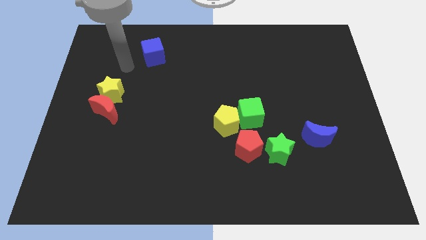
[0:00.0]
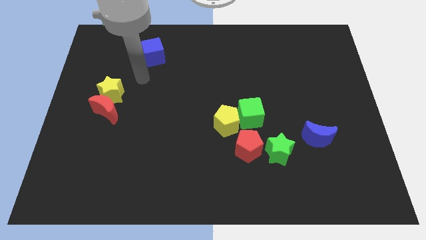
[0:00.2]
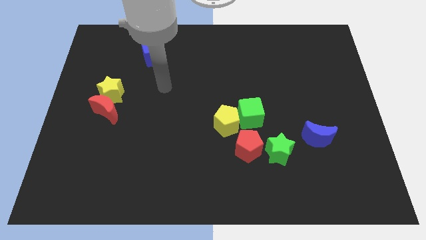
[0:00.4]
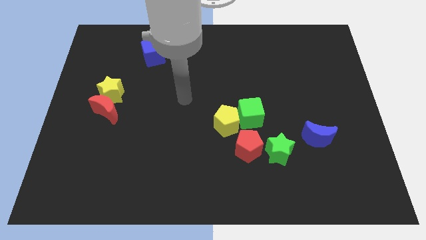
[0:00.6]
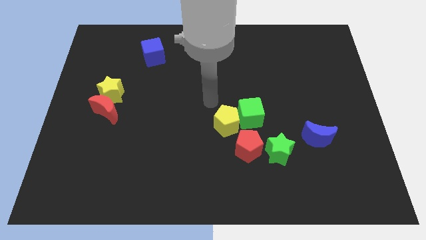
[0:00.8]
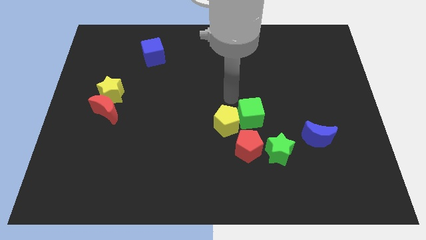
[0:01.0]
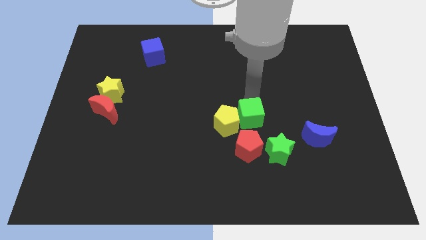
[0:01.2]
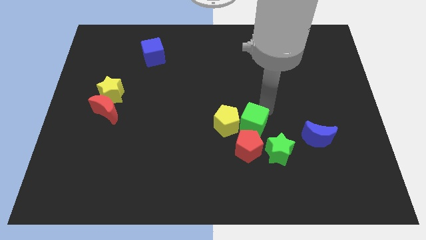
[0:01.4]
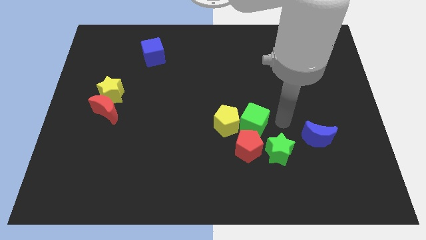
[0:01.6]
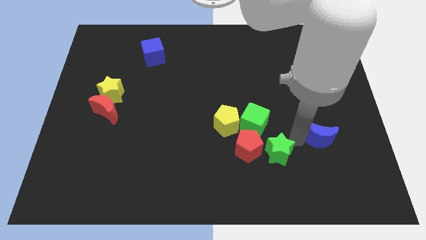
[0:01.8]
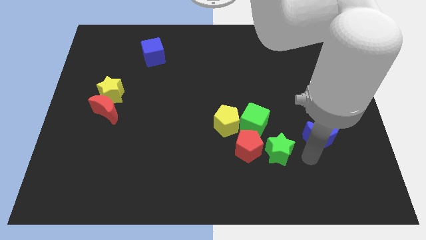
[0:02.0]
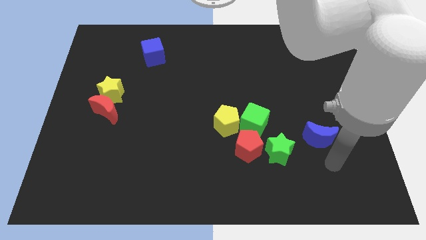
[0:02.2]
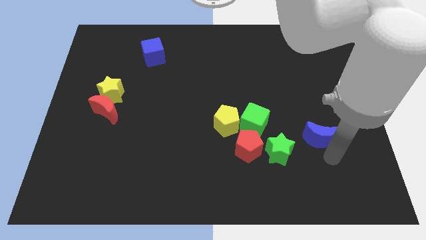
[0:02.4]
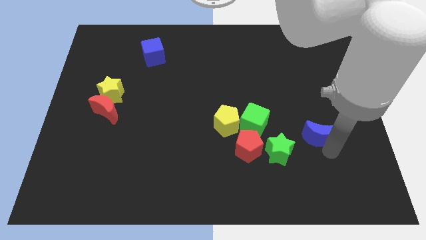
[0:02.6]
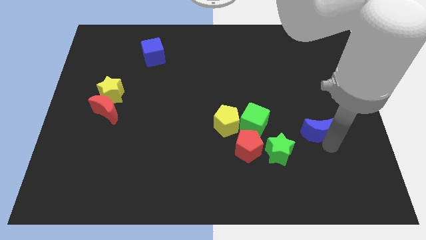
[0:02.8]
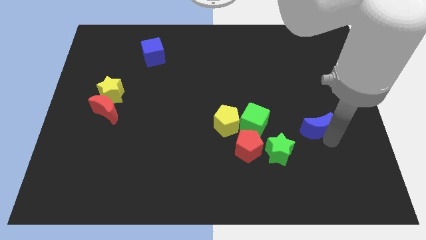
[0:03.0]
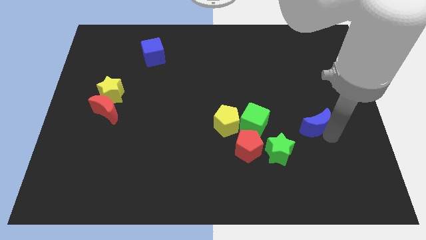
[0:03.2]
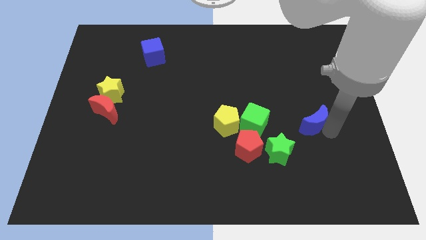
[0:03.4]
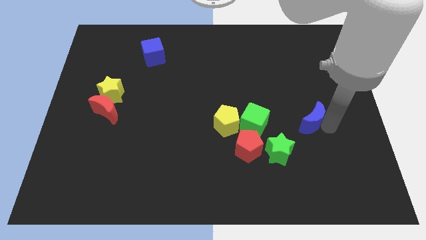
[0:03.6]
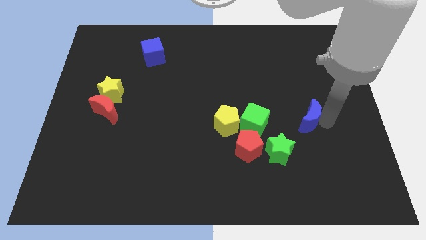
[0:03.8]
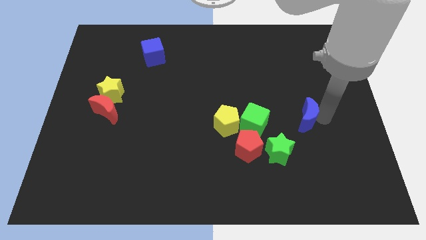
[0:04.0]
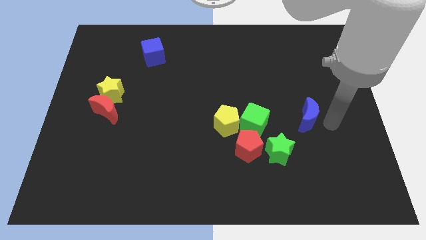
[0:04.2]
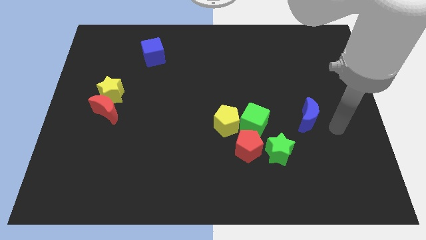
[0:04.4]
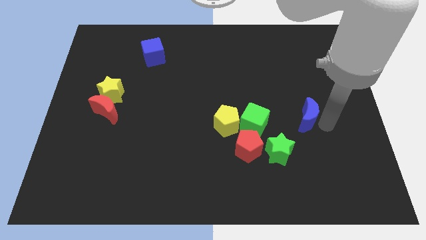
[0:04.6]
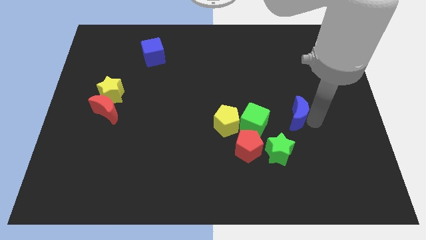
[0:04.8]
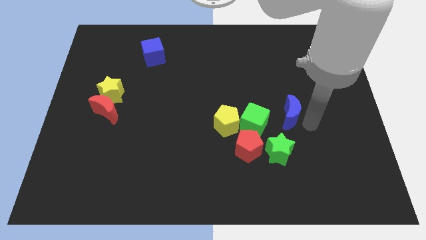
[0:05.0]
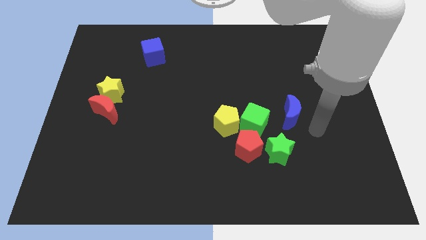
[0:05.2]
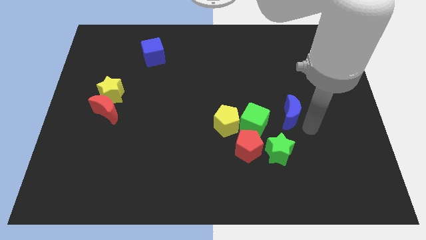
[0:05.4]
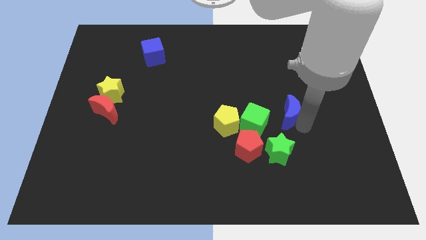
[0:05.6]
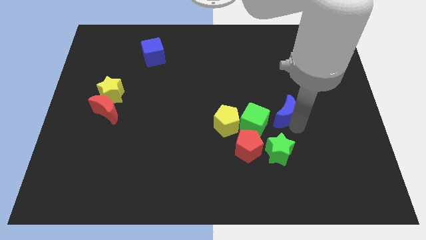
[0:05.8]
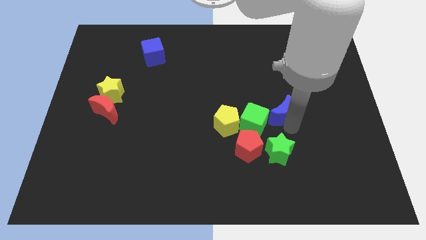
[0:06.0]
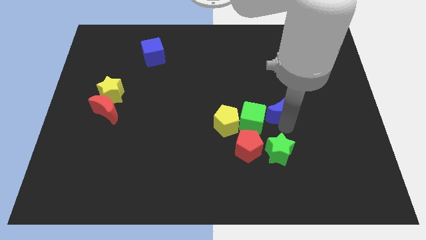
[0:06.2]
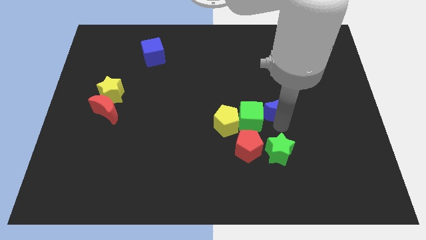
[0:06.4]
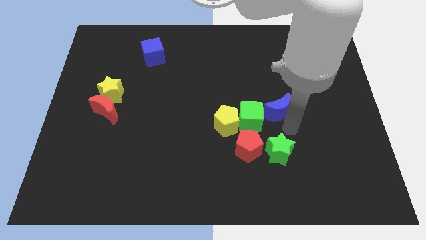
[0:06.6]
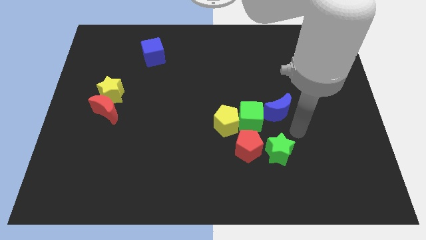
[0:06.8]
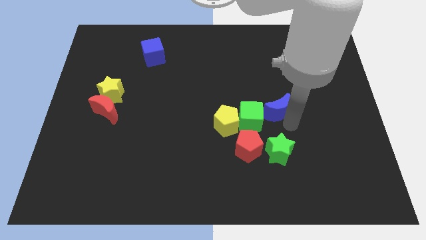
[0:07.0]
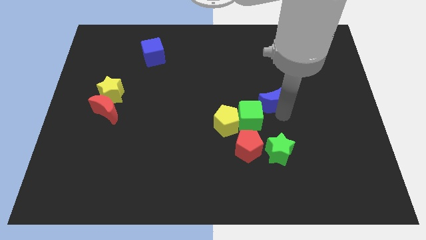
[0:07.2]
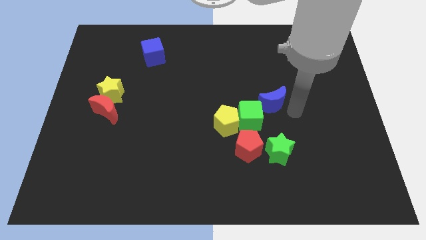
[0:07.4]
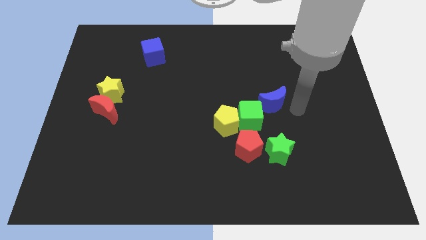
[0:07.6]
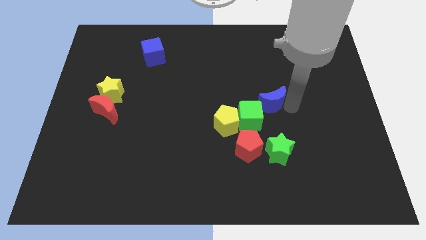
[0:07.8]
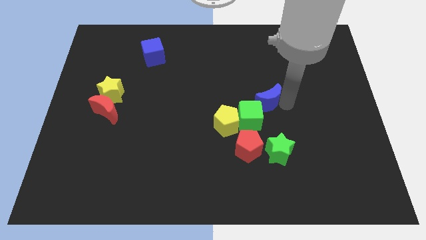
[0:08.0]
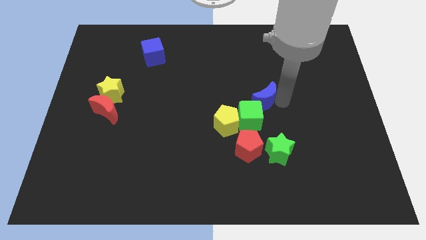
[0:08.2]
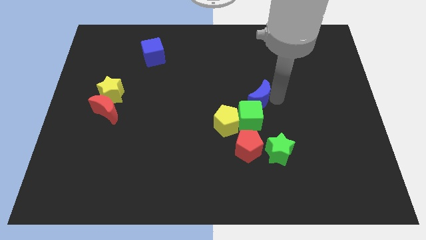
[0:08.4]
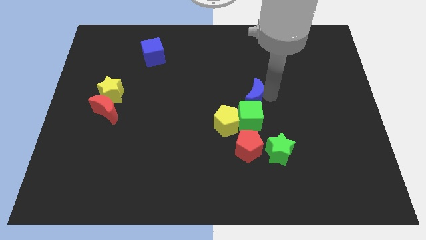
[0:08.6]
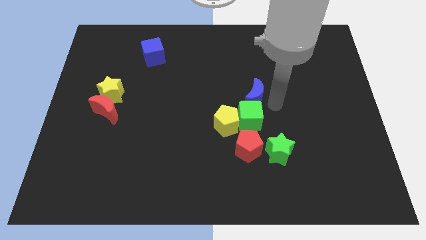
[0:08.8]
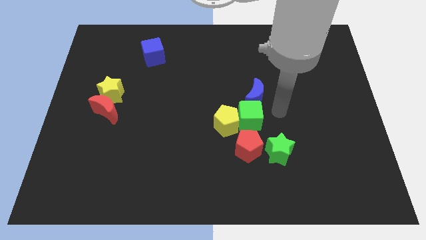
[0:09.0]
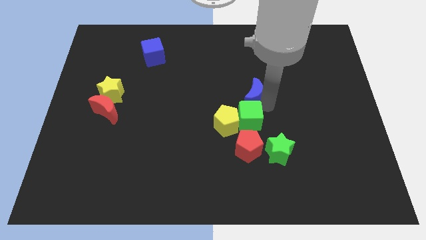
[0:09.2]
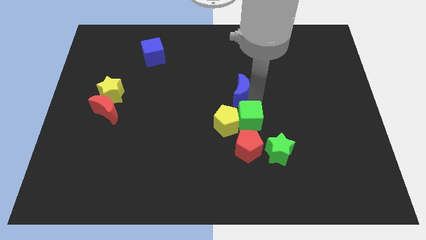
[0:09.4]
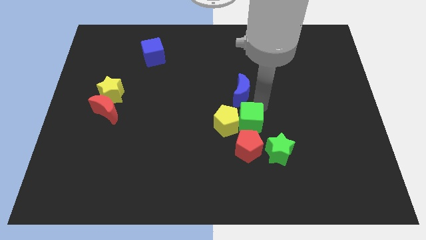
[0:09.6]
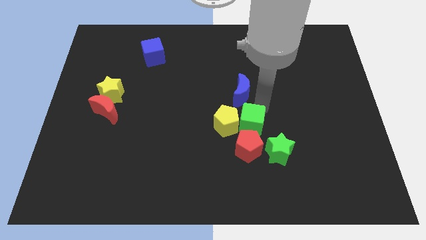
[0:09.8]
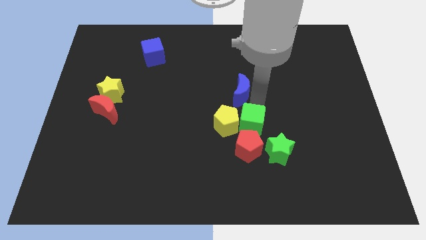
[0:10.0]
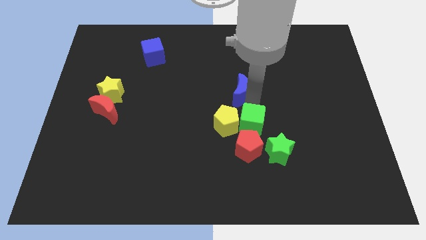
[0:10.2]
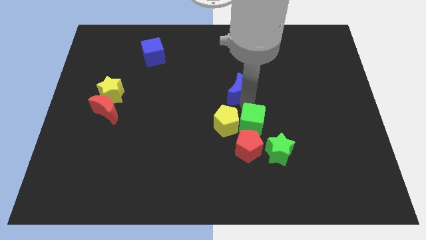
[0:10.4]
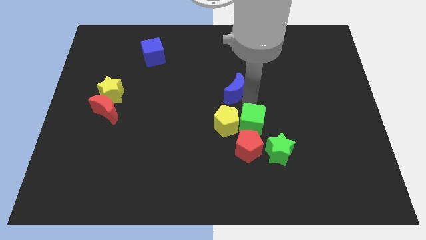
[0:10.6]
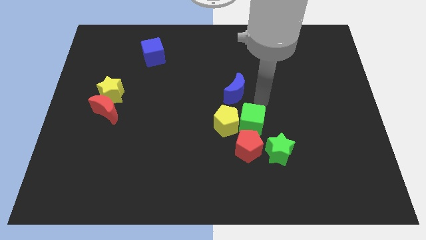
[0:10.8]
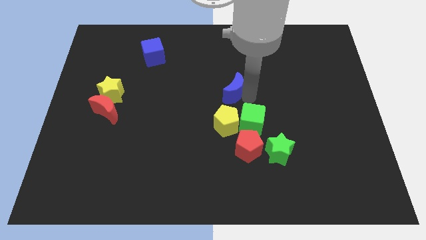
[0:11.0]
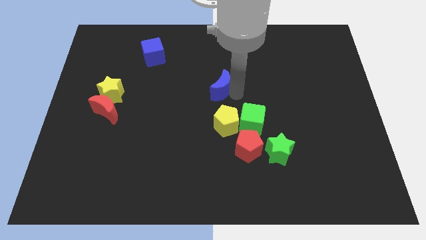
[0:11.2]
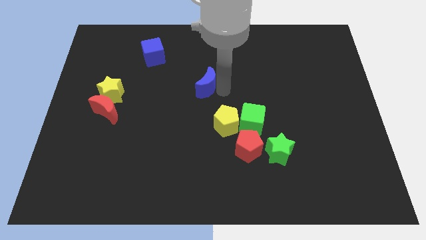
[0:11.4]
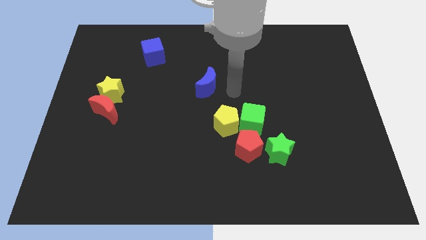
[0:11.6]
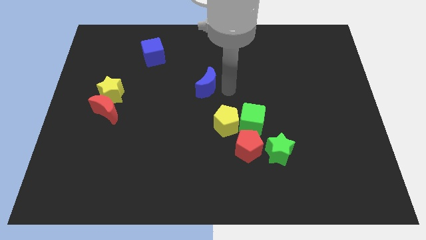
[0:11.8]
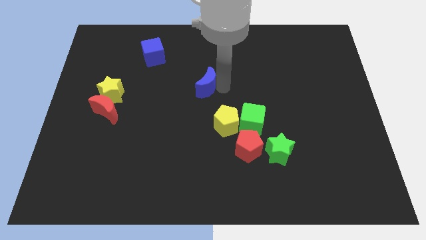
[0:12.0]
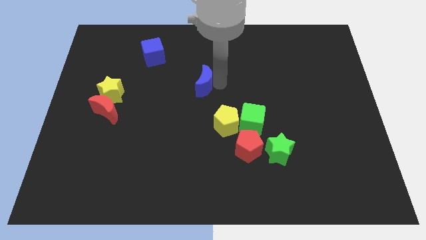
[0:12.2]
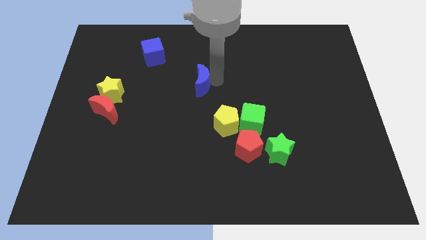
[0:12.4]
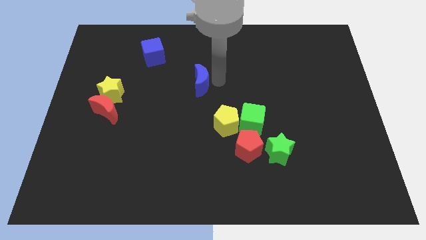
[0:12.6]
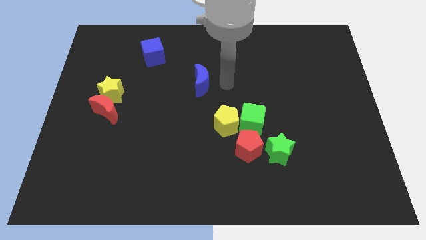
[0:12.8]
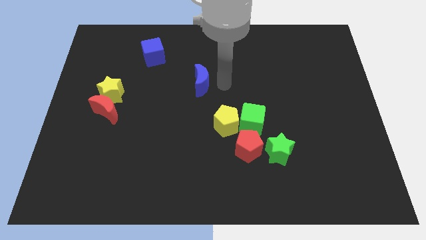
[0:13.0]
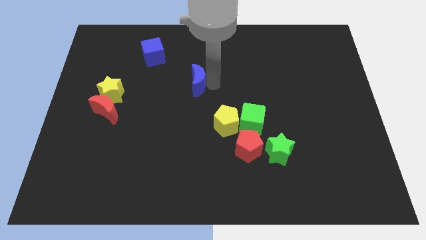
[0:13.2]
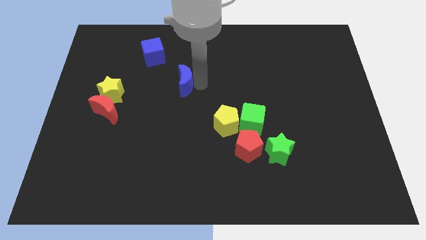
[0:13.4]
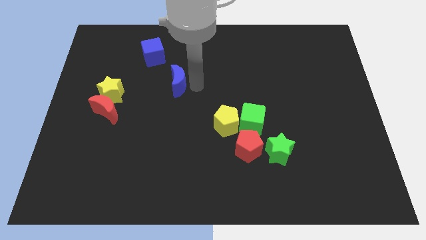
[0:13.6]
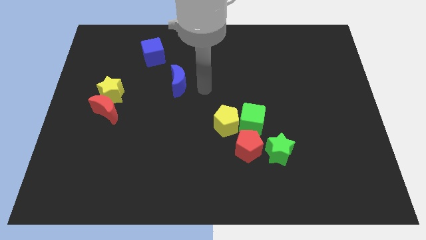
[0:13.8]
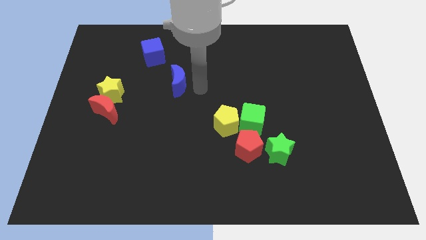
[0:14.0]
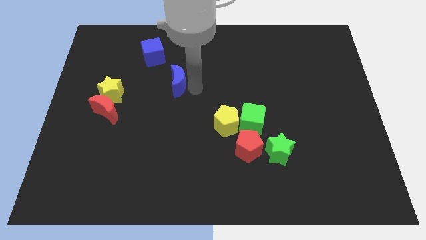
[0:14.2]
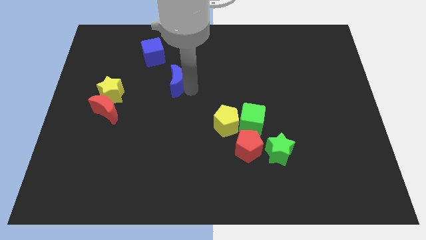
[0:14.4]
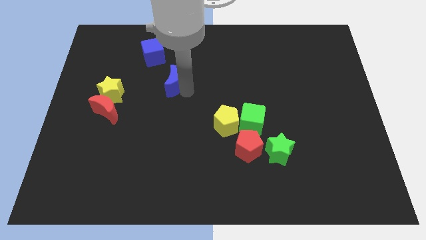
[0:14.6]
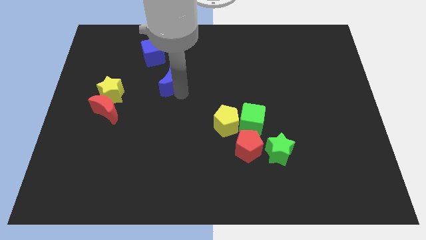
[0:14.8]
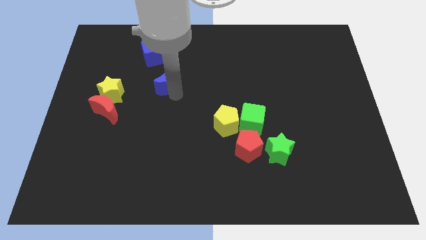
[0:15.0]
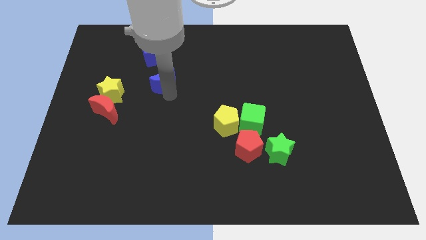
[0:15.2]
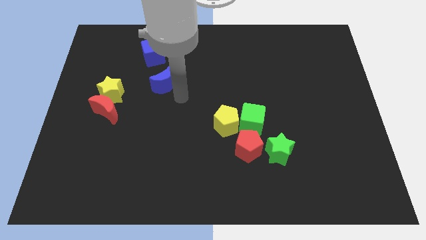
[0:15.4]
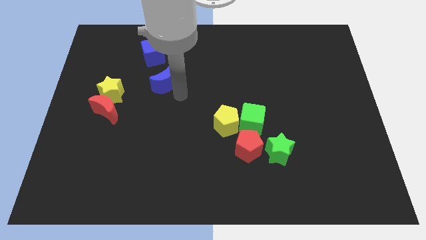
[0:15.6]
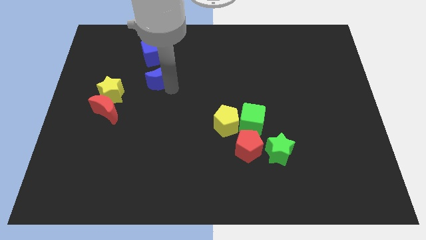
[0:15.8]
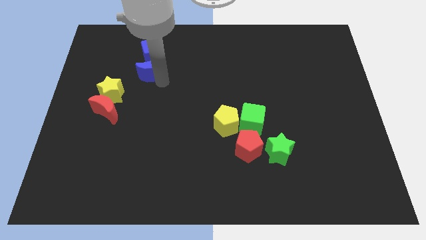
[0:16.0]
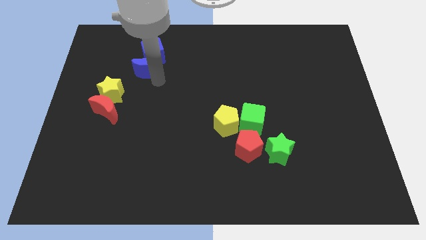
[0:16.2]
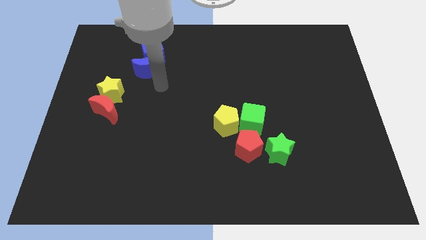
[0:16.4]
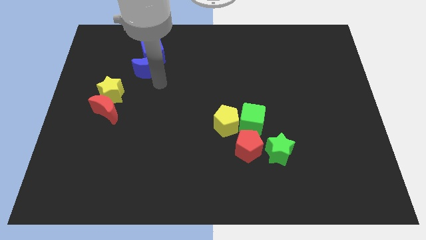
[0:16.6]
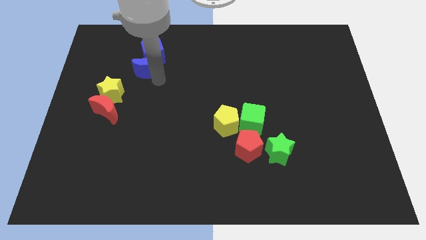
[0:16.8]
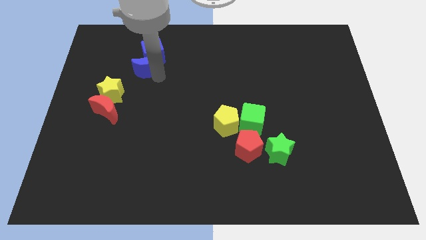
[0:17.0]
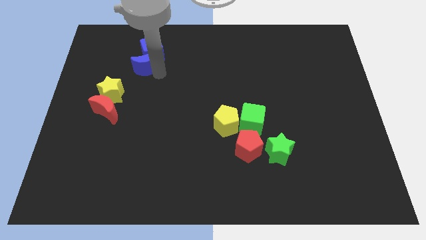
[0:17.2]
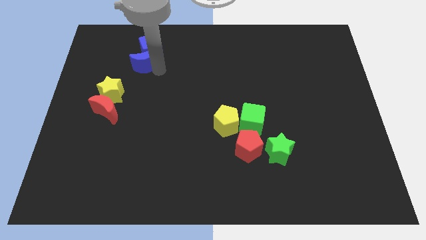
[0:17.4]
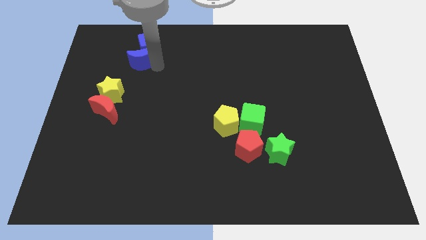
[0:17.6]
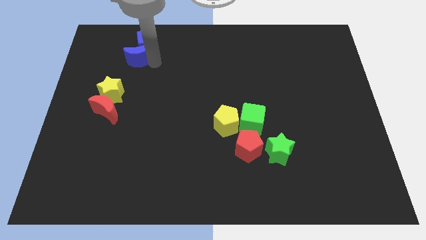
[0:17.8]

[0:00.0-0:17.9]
push the blue moon to the top side of the yellow star
